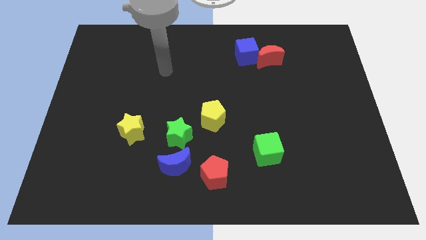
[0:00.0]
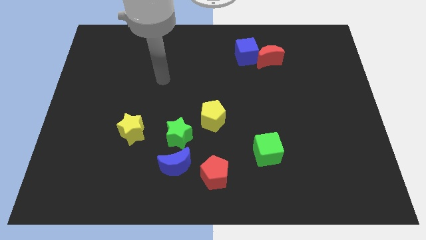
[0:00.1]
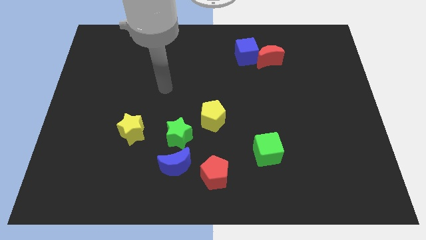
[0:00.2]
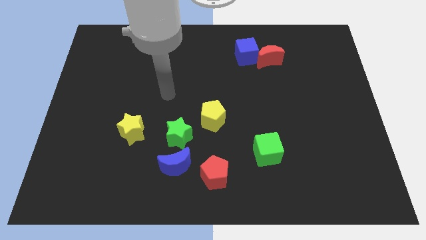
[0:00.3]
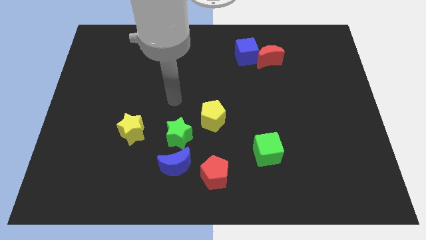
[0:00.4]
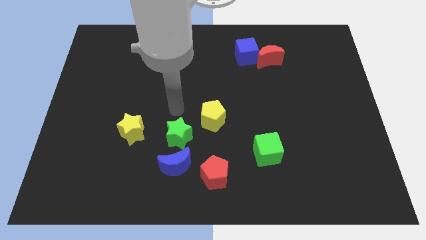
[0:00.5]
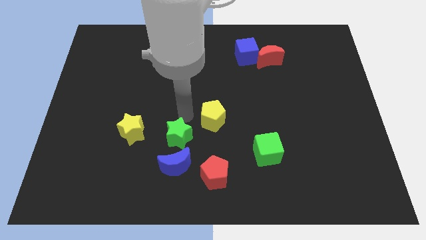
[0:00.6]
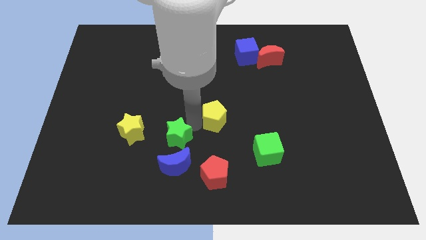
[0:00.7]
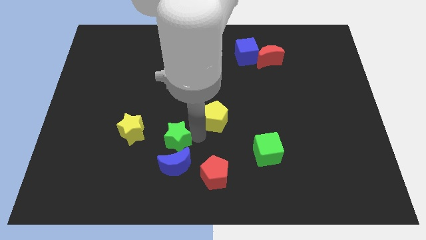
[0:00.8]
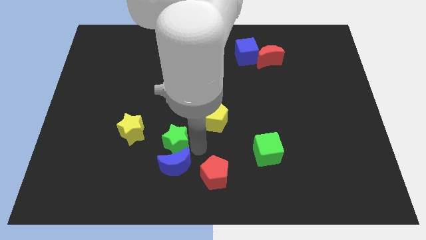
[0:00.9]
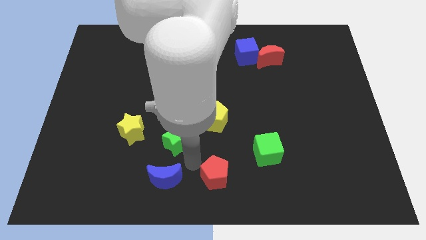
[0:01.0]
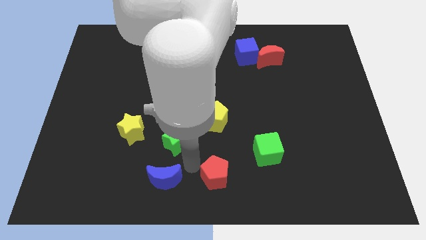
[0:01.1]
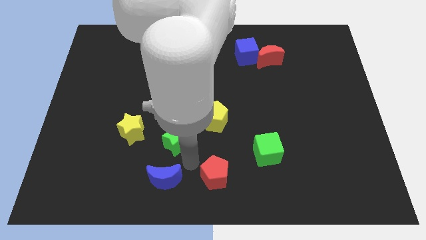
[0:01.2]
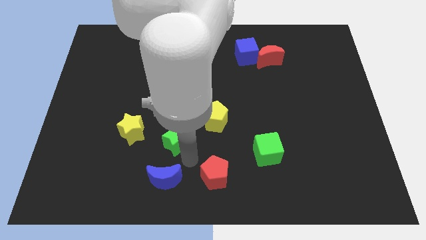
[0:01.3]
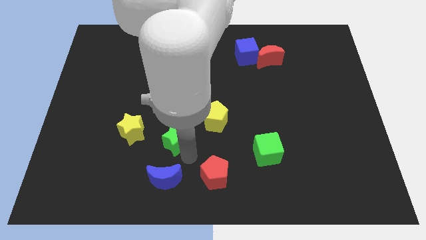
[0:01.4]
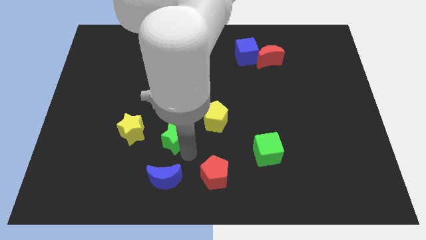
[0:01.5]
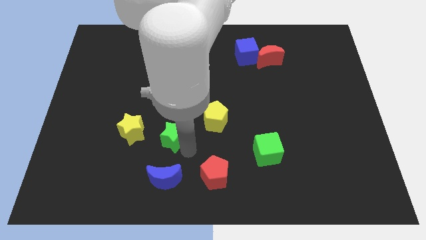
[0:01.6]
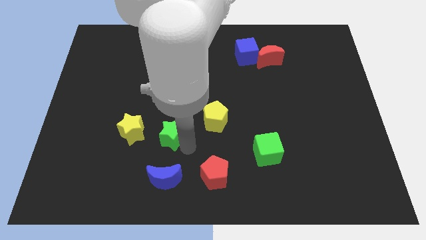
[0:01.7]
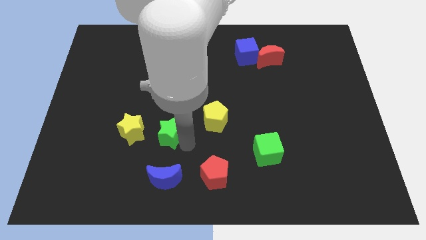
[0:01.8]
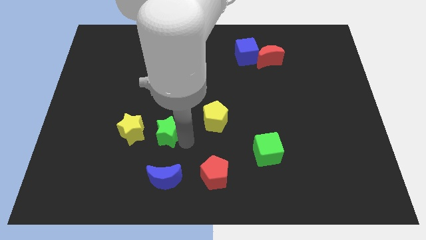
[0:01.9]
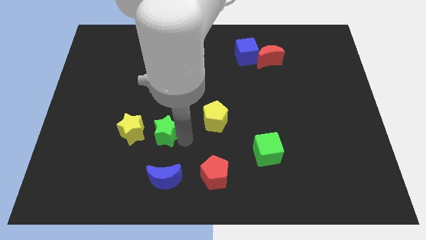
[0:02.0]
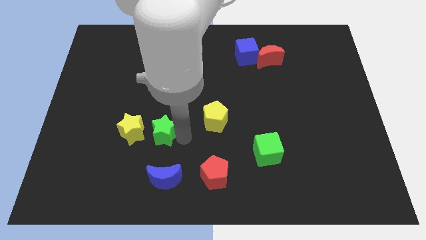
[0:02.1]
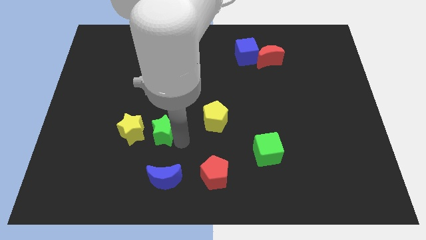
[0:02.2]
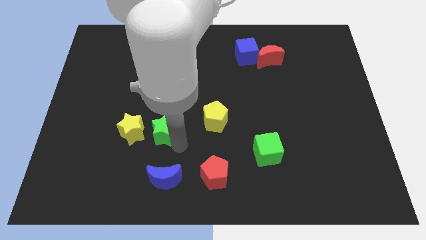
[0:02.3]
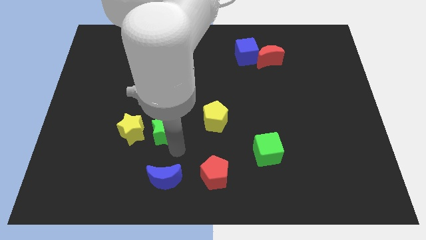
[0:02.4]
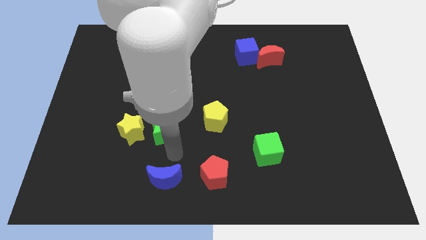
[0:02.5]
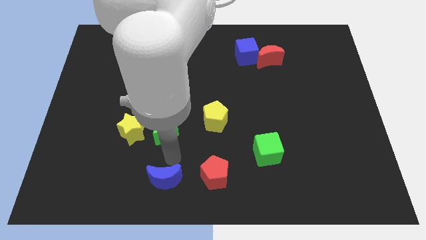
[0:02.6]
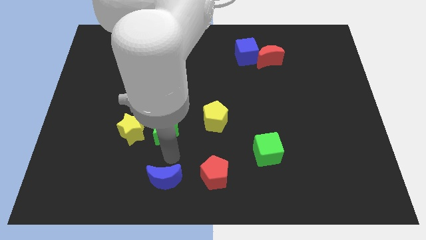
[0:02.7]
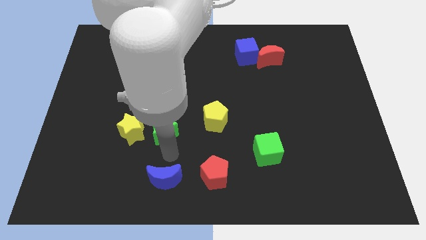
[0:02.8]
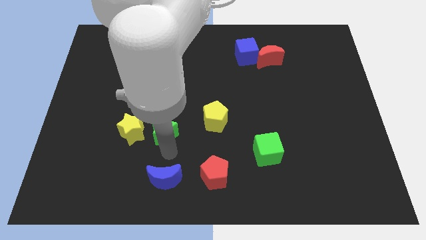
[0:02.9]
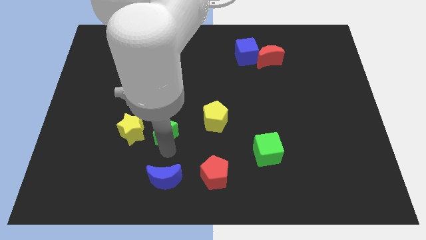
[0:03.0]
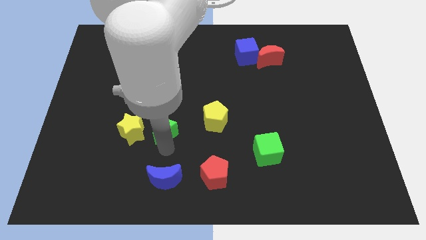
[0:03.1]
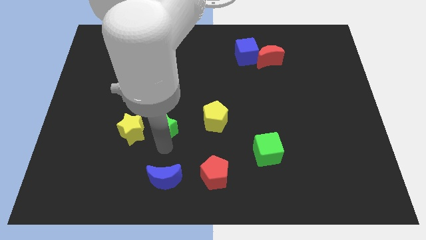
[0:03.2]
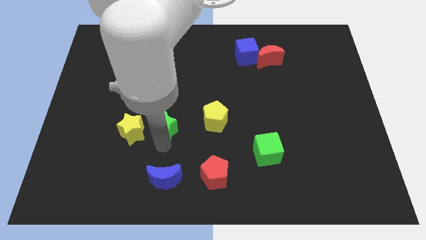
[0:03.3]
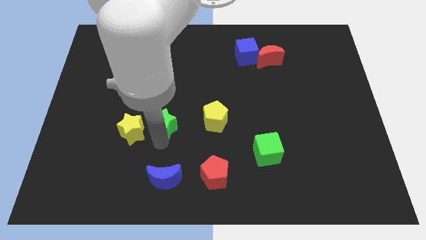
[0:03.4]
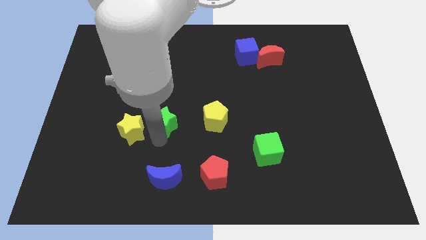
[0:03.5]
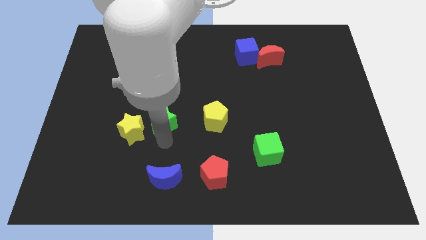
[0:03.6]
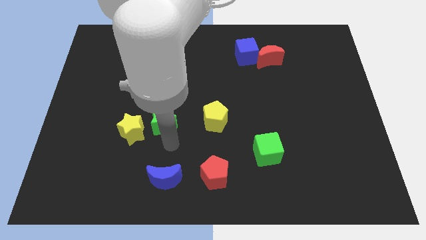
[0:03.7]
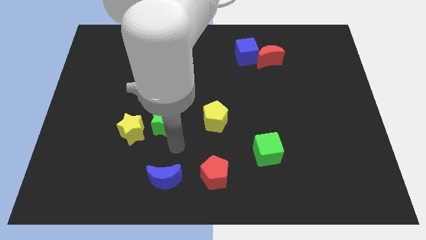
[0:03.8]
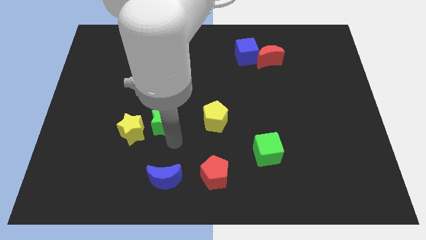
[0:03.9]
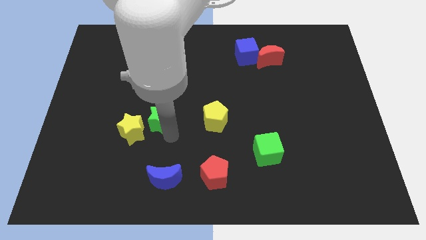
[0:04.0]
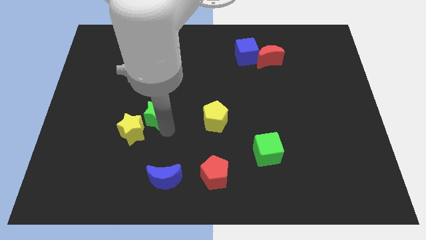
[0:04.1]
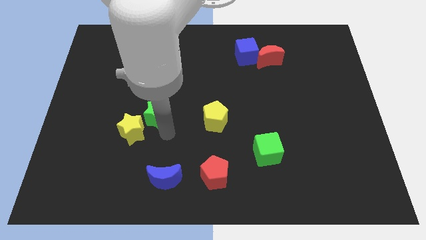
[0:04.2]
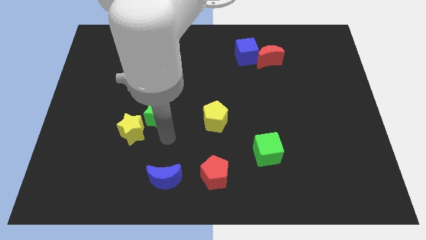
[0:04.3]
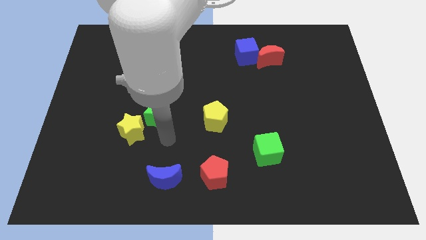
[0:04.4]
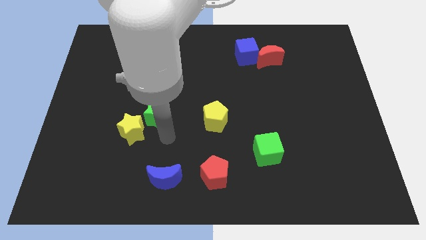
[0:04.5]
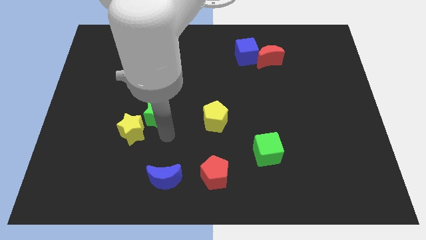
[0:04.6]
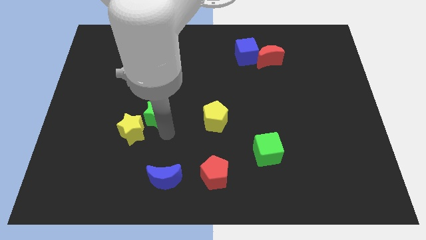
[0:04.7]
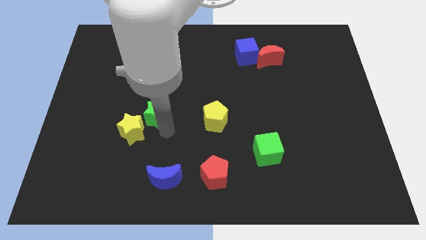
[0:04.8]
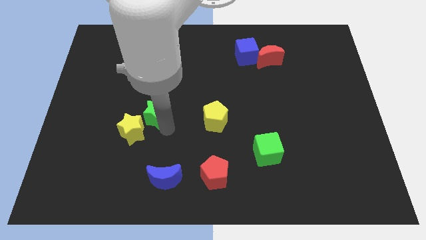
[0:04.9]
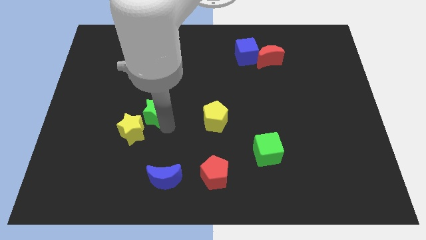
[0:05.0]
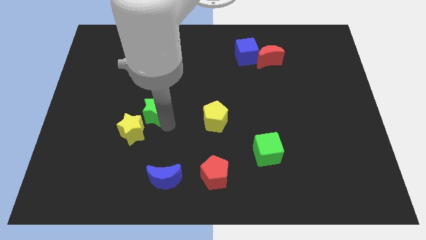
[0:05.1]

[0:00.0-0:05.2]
push the green star above the yellow star

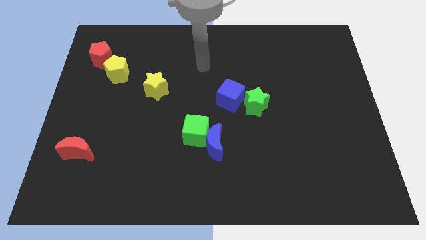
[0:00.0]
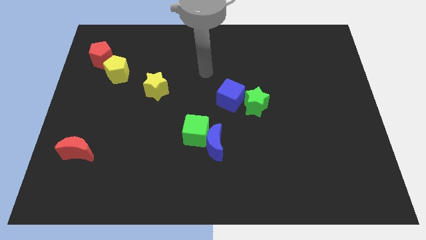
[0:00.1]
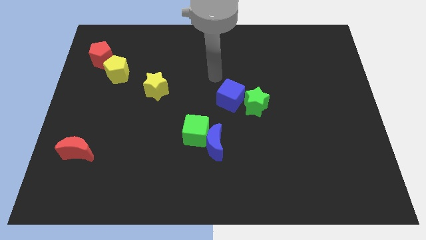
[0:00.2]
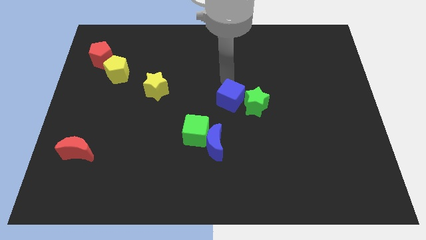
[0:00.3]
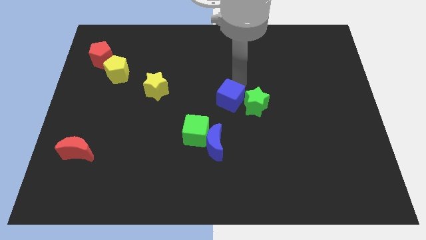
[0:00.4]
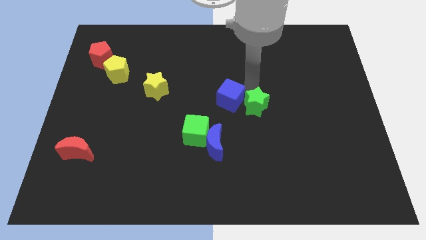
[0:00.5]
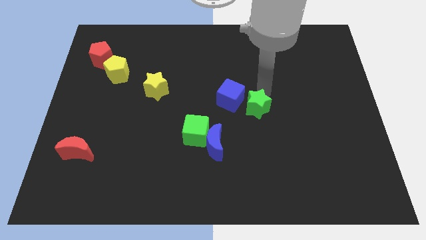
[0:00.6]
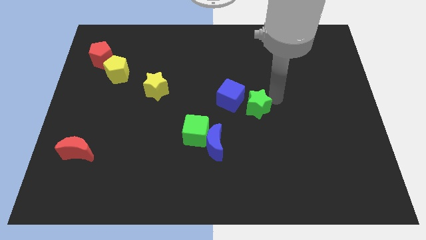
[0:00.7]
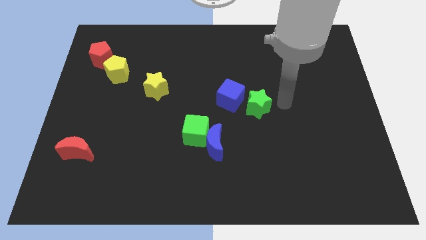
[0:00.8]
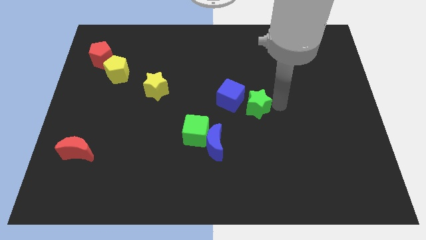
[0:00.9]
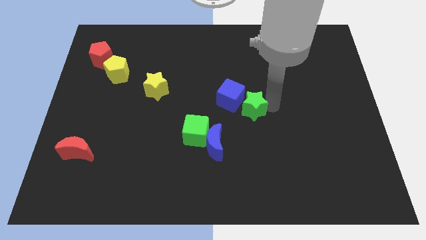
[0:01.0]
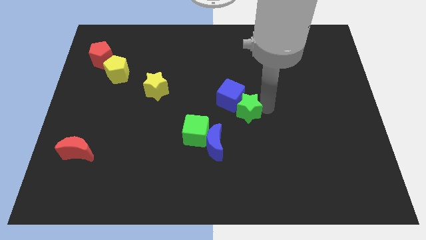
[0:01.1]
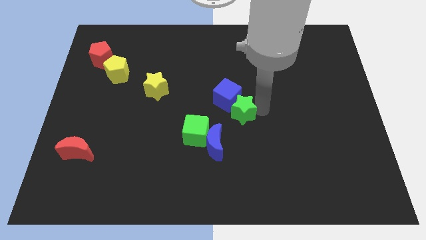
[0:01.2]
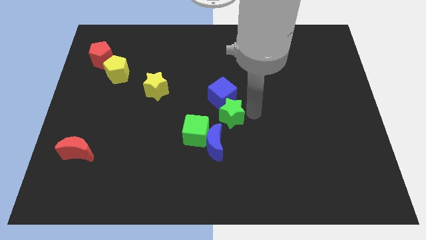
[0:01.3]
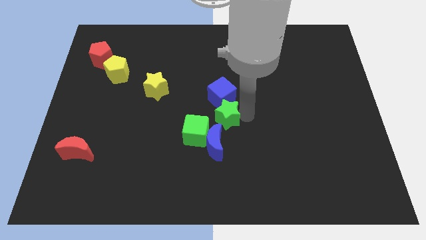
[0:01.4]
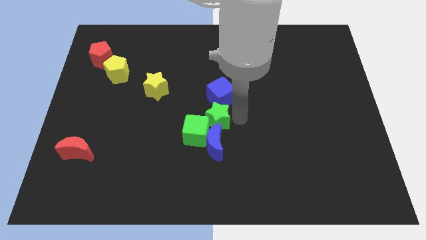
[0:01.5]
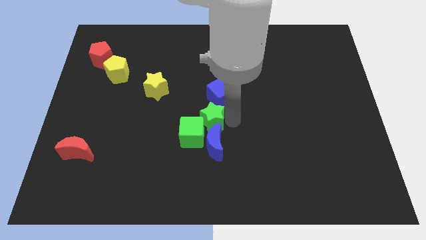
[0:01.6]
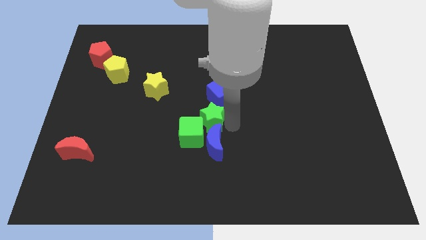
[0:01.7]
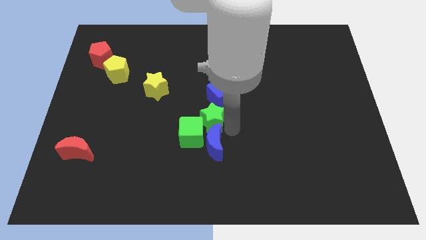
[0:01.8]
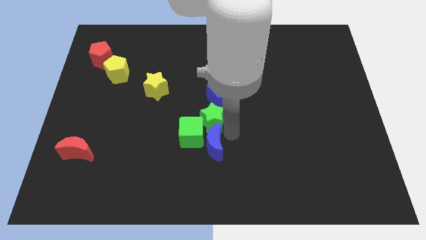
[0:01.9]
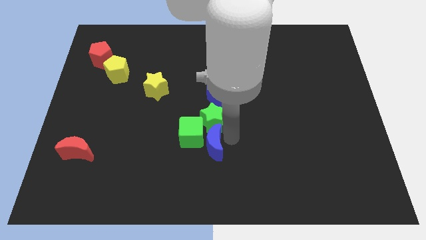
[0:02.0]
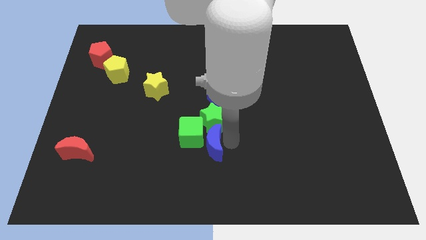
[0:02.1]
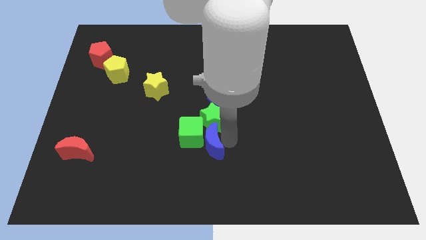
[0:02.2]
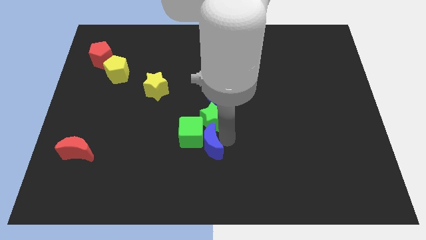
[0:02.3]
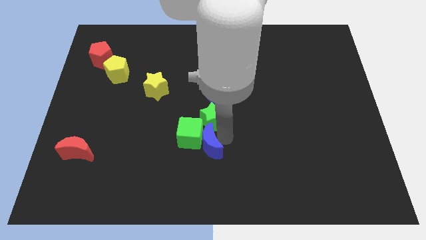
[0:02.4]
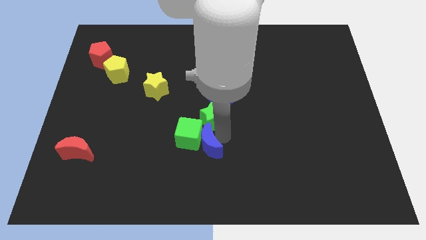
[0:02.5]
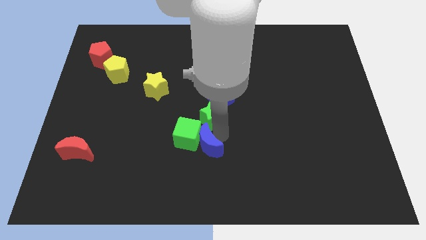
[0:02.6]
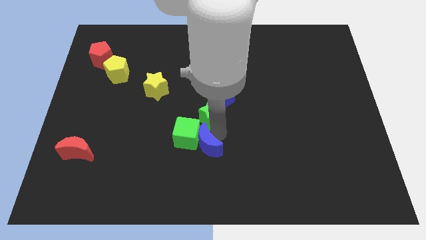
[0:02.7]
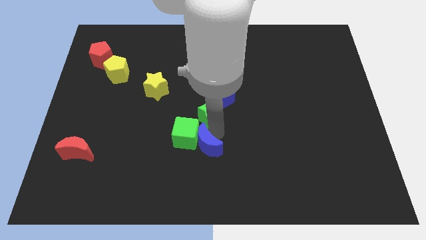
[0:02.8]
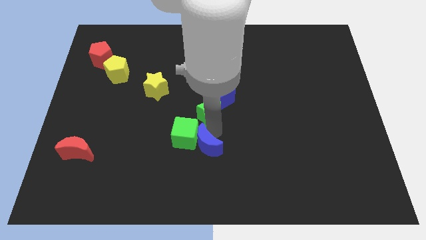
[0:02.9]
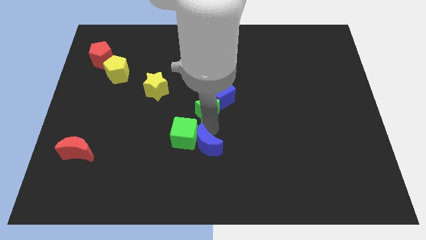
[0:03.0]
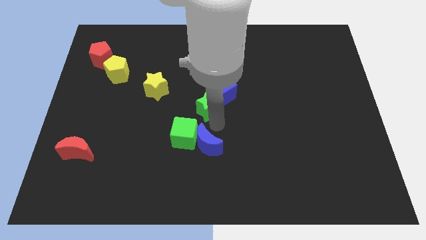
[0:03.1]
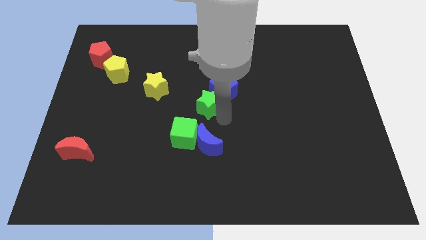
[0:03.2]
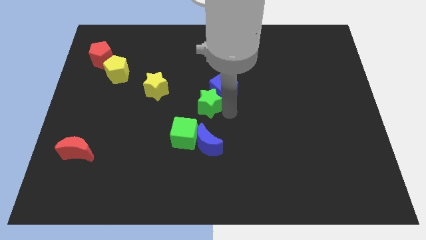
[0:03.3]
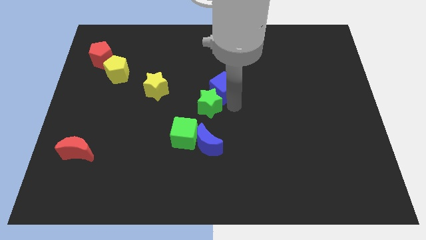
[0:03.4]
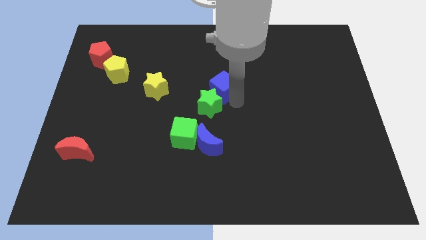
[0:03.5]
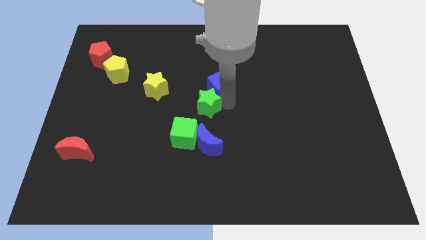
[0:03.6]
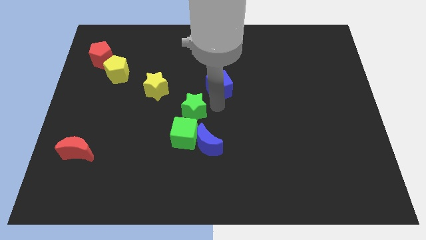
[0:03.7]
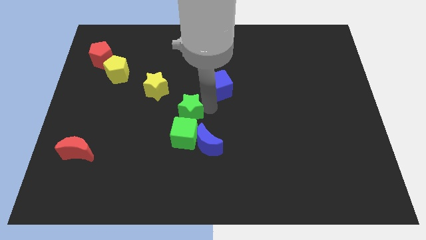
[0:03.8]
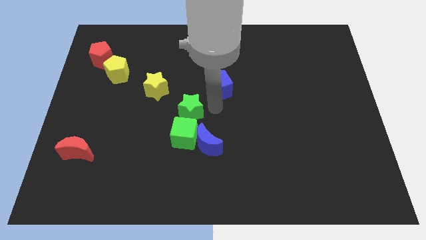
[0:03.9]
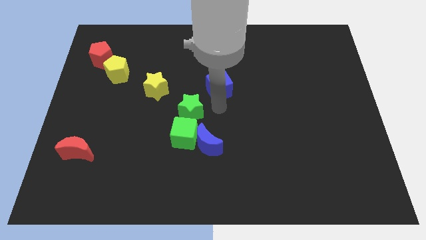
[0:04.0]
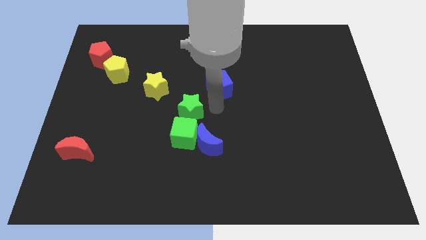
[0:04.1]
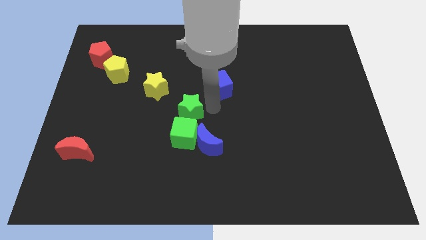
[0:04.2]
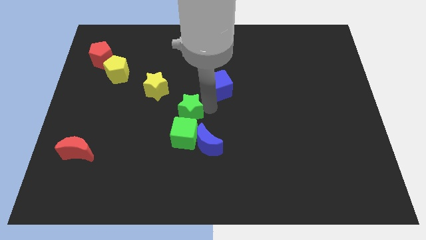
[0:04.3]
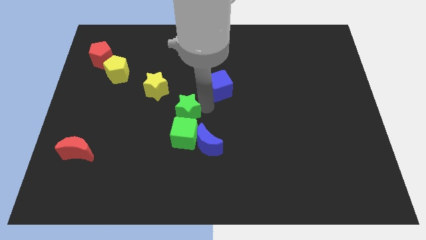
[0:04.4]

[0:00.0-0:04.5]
put the green star to the top left side of the green cube
